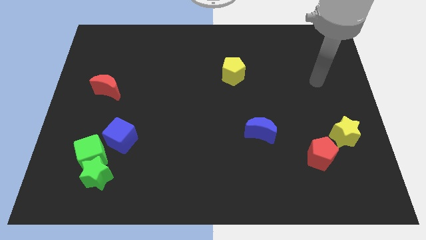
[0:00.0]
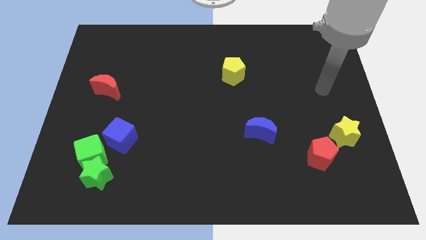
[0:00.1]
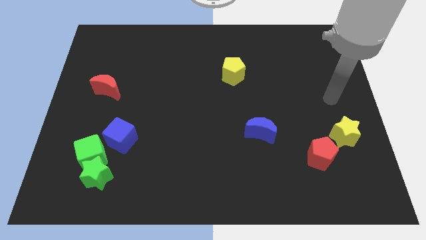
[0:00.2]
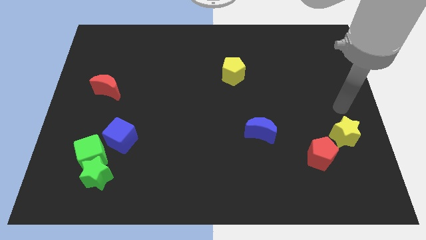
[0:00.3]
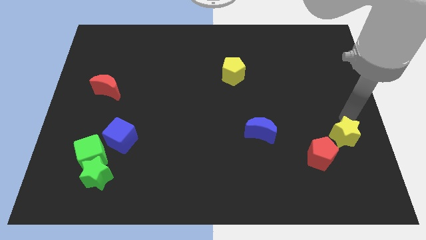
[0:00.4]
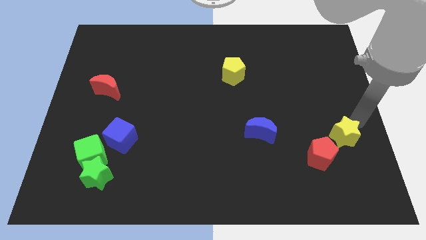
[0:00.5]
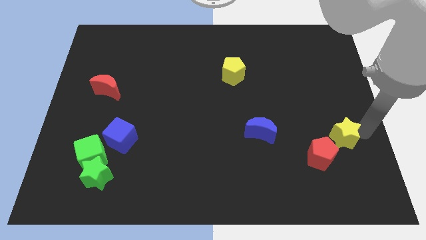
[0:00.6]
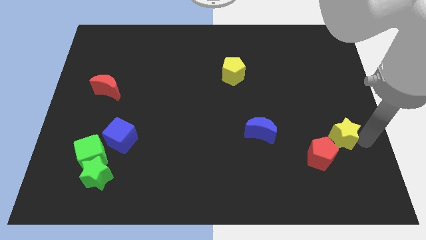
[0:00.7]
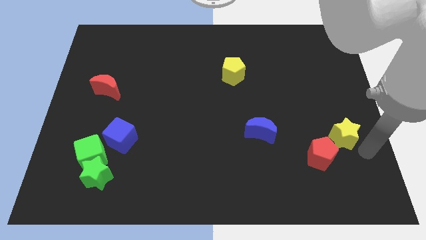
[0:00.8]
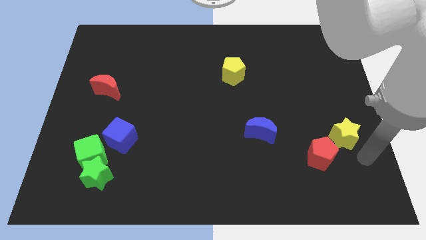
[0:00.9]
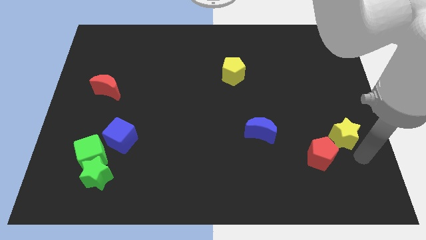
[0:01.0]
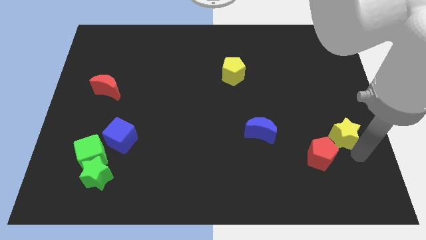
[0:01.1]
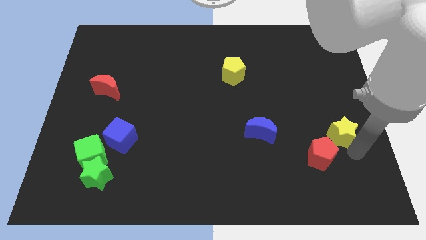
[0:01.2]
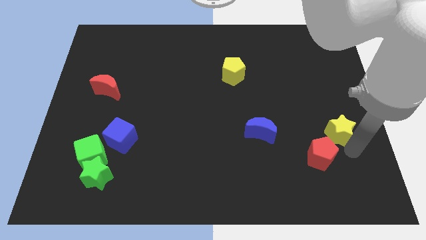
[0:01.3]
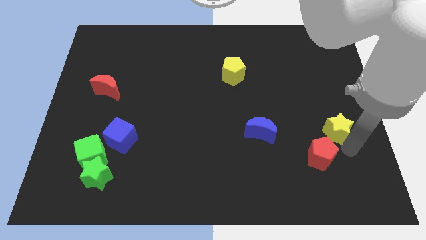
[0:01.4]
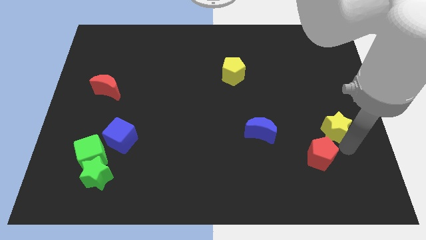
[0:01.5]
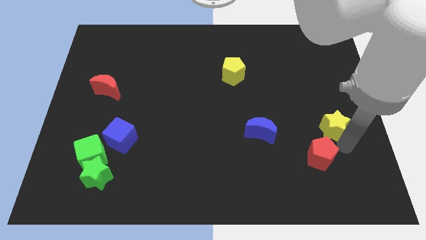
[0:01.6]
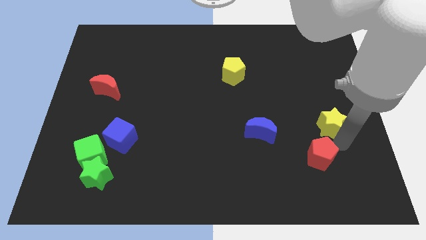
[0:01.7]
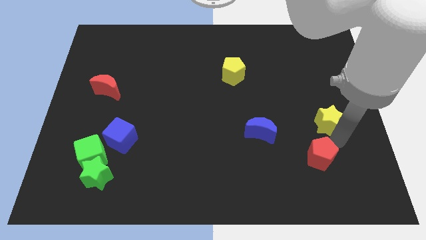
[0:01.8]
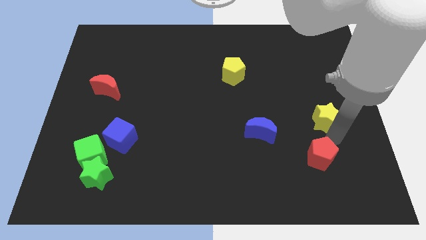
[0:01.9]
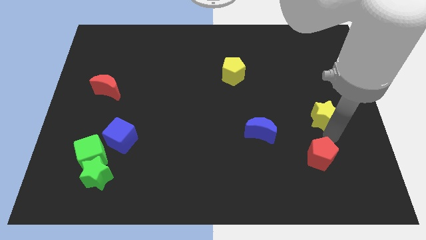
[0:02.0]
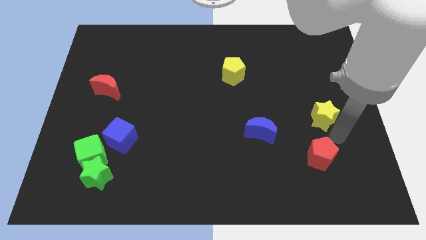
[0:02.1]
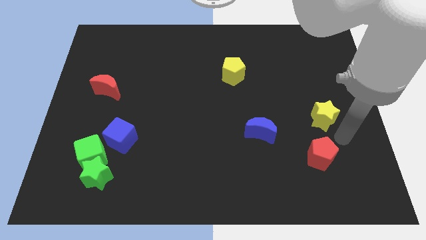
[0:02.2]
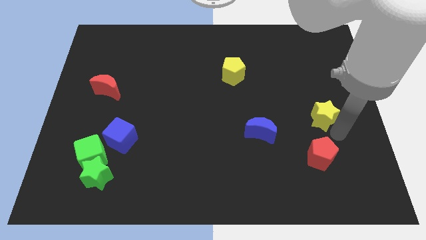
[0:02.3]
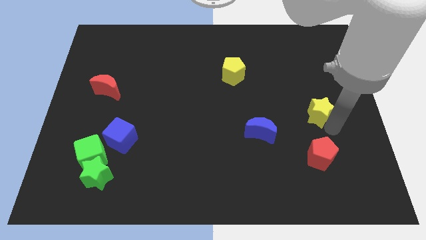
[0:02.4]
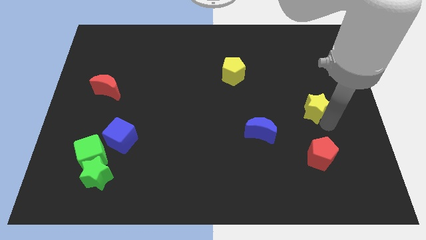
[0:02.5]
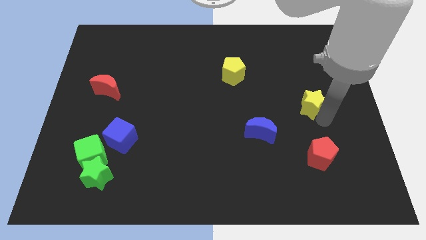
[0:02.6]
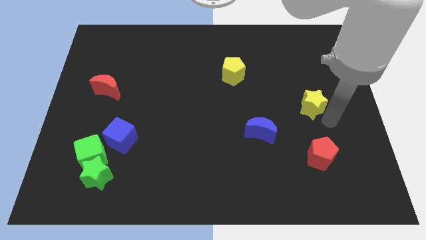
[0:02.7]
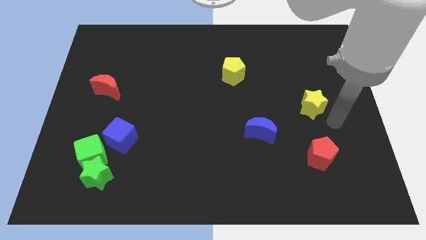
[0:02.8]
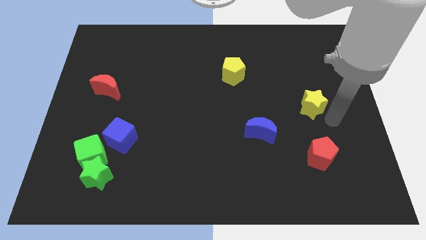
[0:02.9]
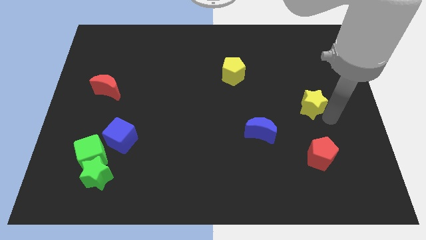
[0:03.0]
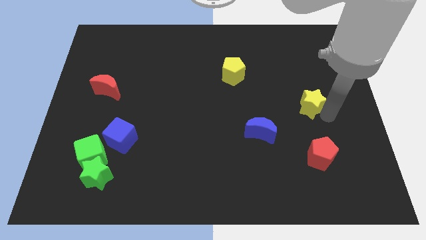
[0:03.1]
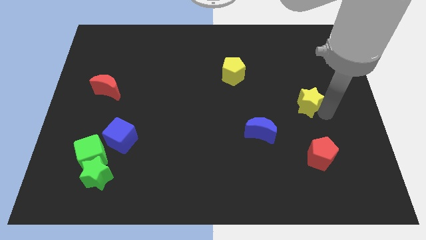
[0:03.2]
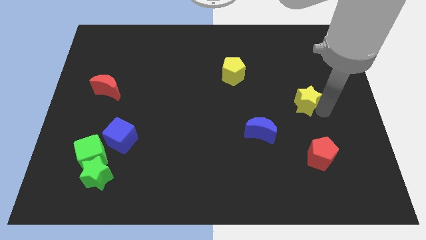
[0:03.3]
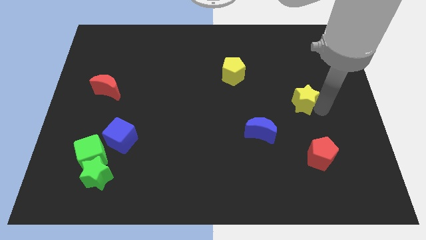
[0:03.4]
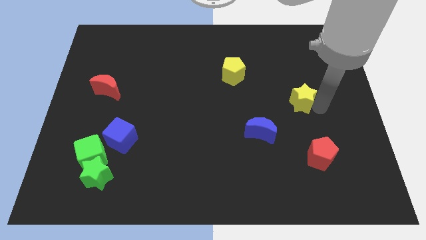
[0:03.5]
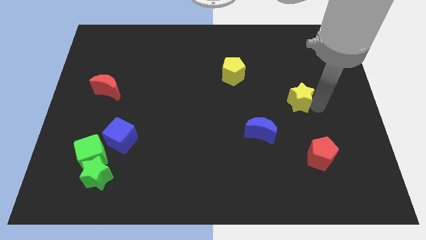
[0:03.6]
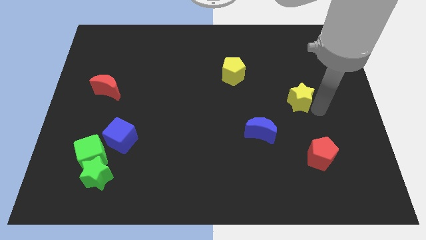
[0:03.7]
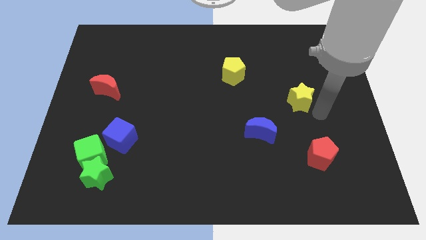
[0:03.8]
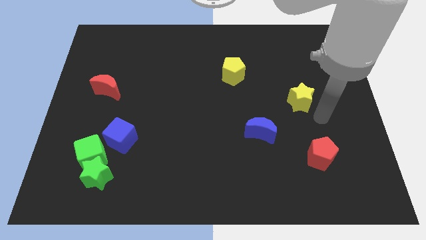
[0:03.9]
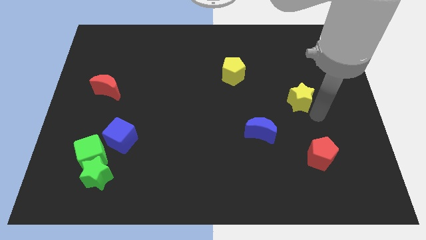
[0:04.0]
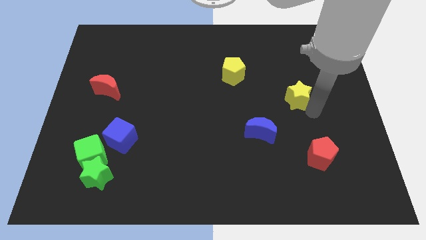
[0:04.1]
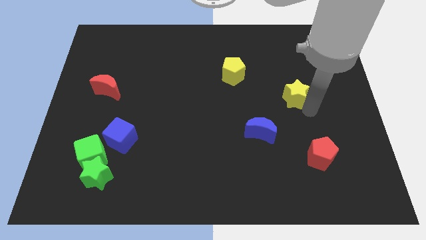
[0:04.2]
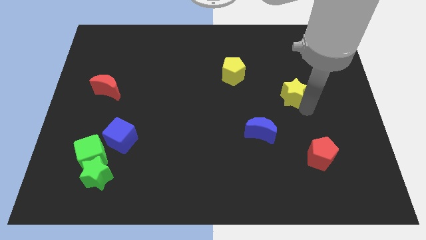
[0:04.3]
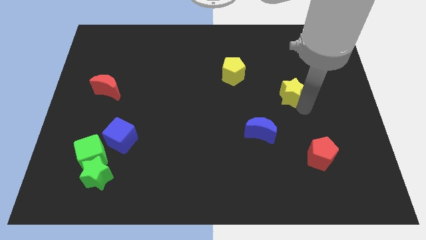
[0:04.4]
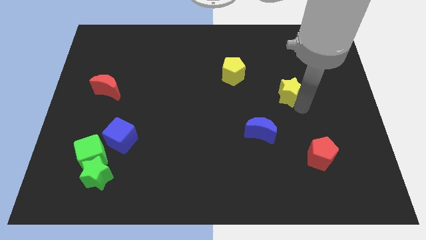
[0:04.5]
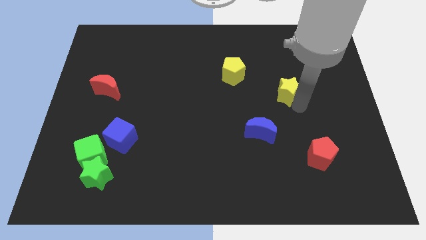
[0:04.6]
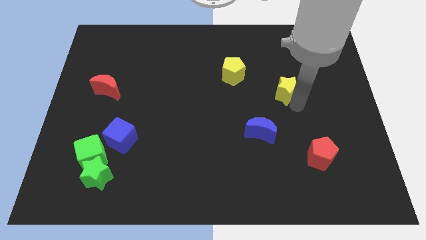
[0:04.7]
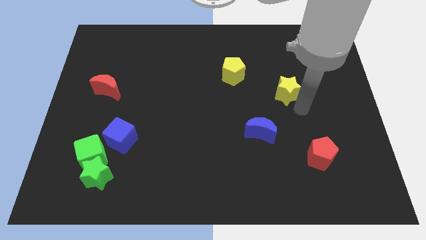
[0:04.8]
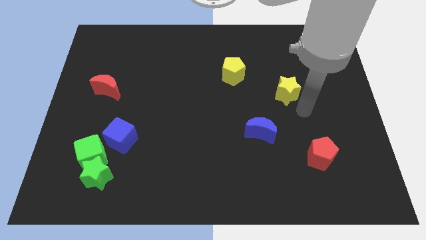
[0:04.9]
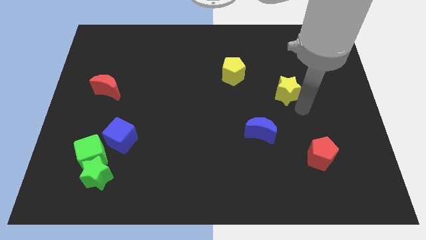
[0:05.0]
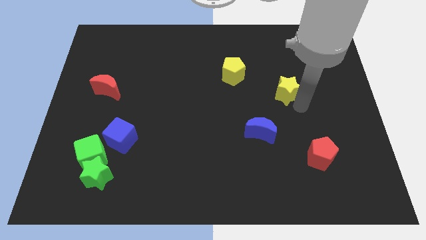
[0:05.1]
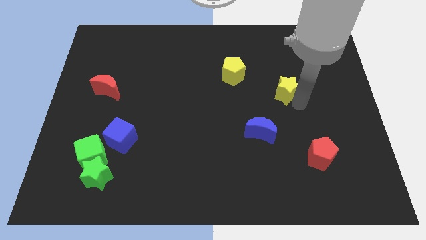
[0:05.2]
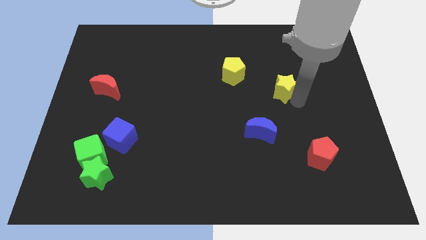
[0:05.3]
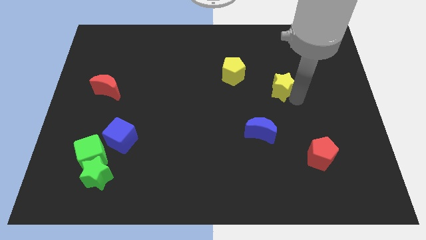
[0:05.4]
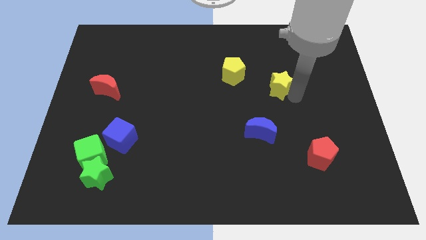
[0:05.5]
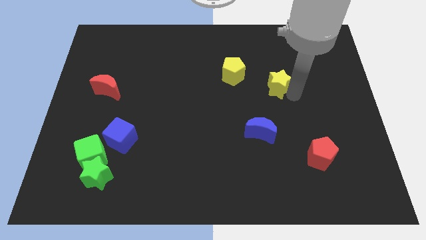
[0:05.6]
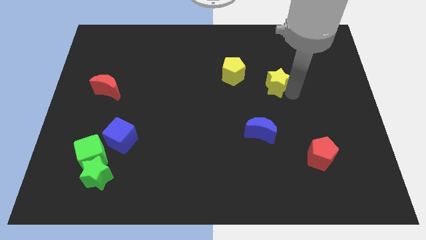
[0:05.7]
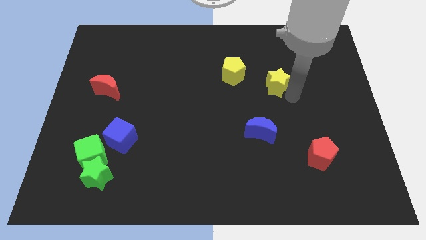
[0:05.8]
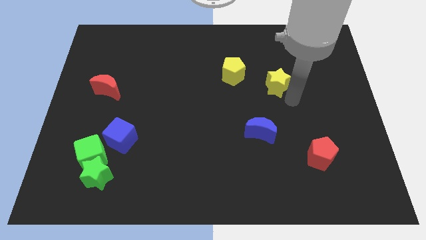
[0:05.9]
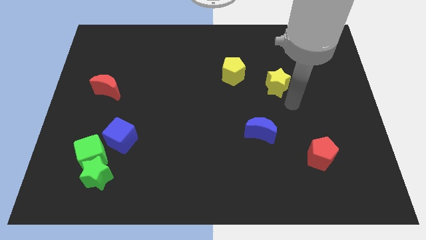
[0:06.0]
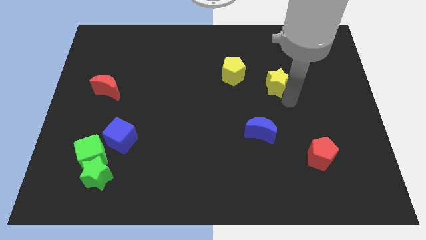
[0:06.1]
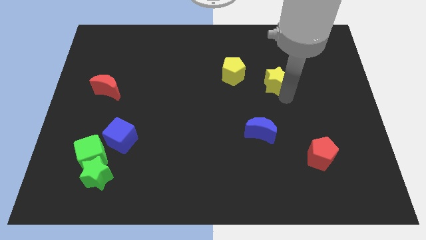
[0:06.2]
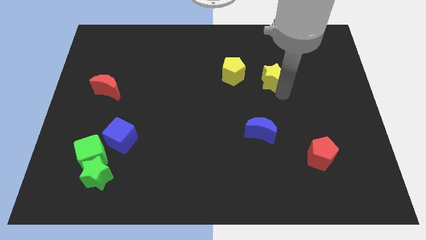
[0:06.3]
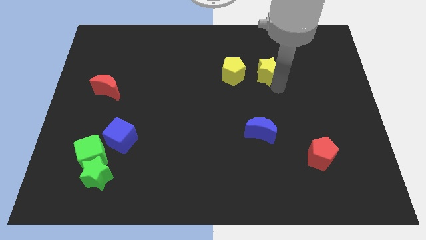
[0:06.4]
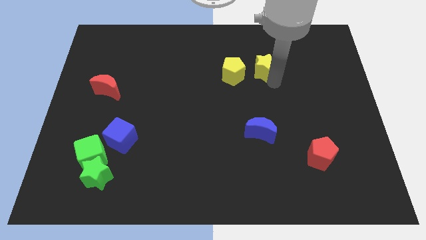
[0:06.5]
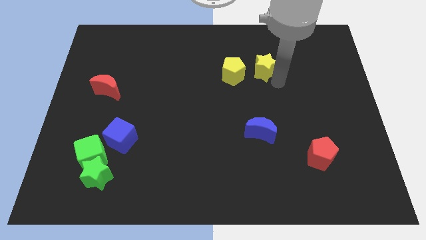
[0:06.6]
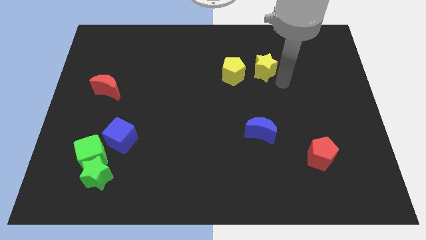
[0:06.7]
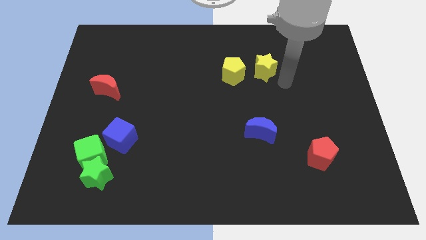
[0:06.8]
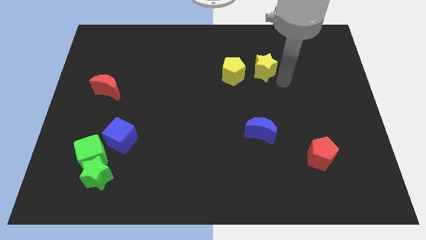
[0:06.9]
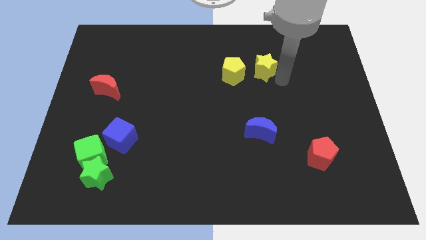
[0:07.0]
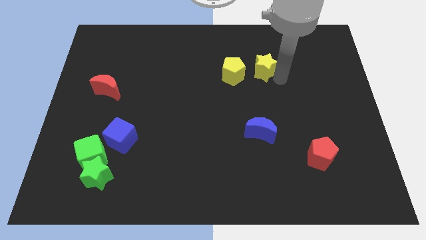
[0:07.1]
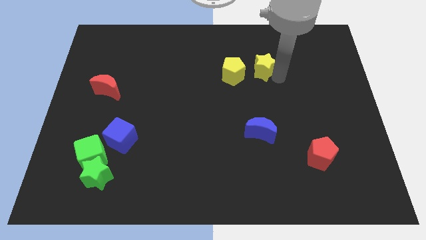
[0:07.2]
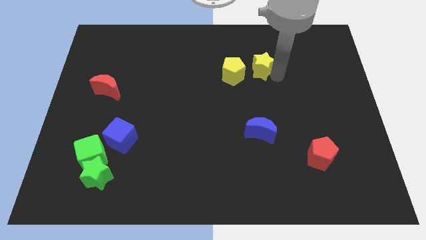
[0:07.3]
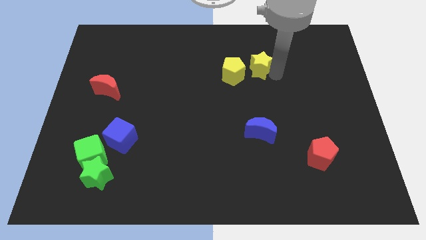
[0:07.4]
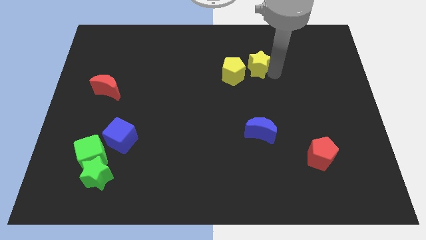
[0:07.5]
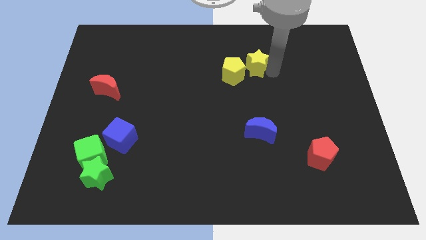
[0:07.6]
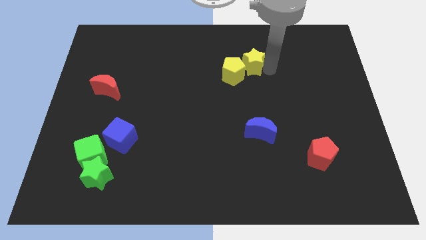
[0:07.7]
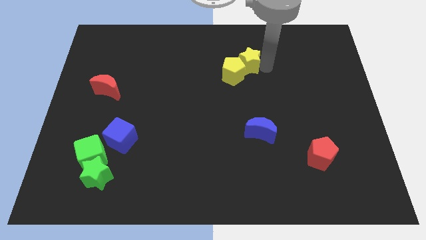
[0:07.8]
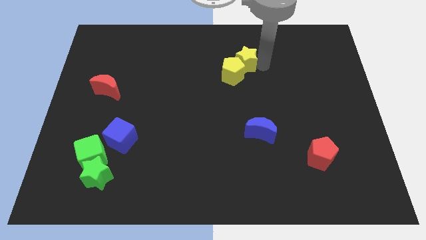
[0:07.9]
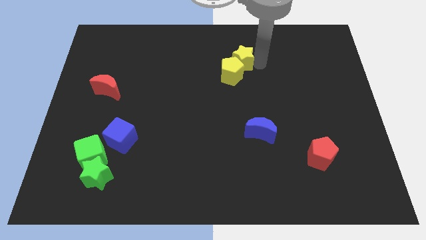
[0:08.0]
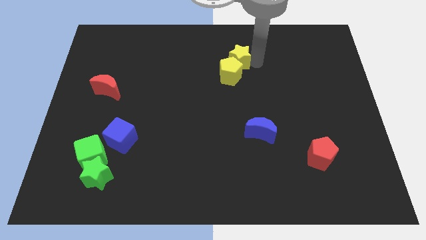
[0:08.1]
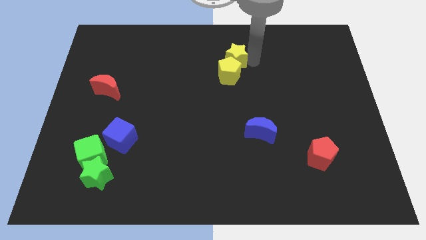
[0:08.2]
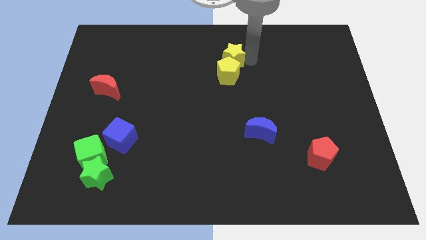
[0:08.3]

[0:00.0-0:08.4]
move the yellow star diagonally up and to the left of the yellow pentagon
